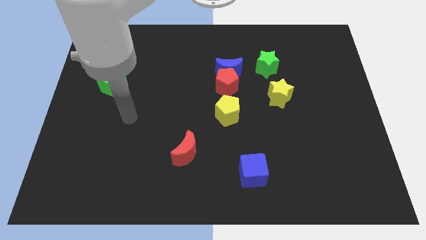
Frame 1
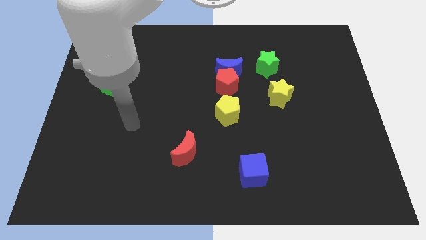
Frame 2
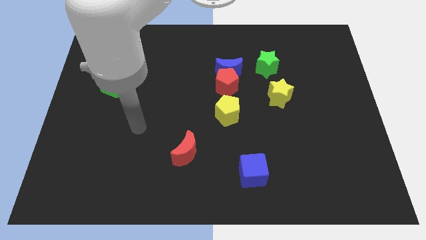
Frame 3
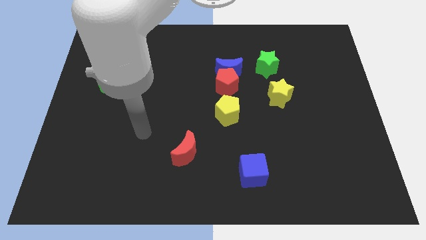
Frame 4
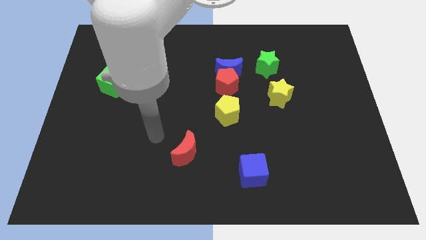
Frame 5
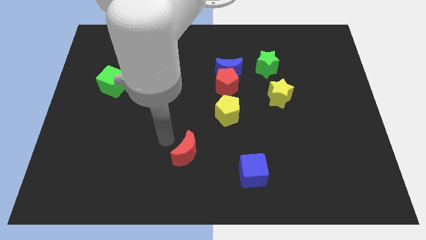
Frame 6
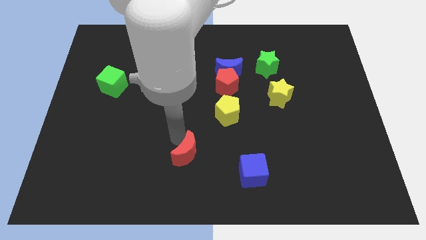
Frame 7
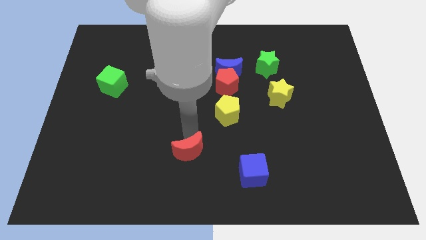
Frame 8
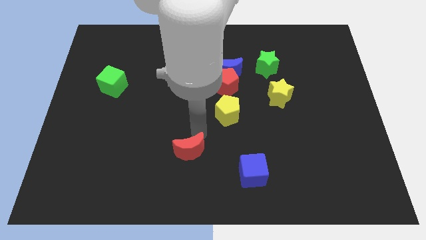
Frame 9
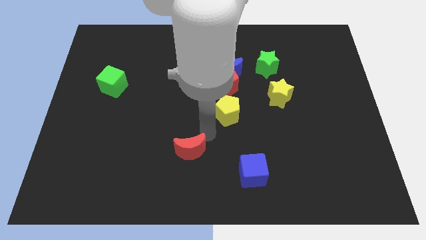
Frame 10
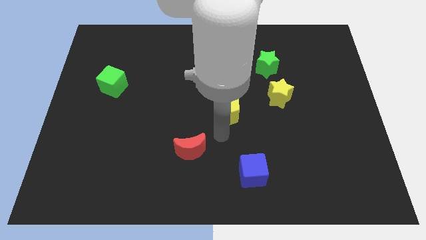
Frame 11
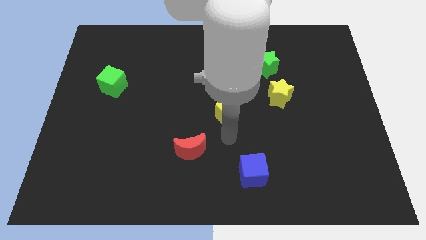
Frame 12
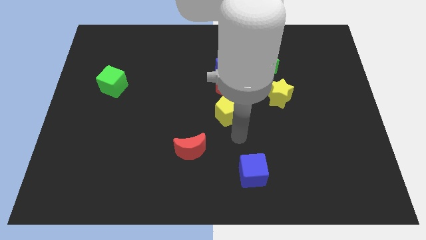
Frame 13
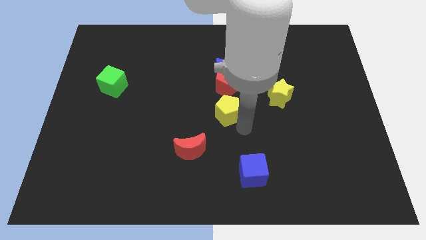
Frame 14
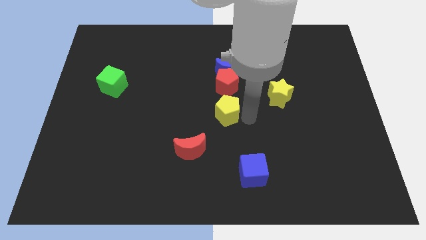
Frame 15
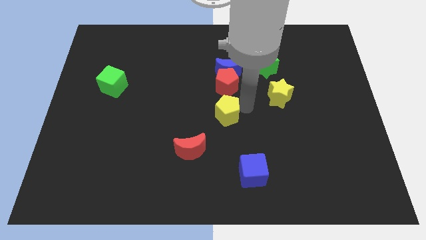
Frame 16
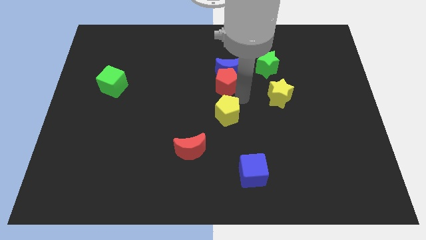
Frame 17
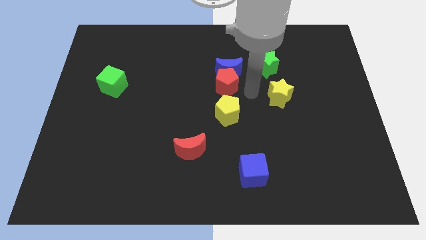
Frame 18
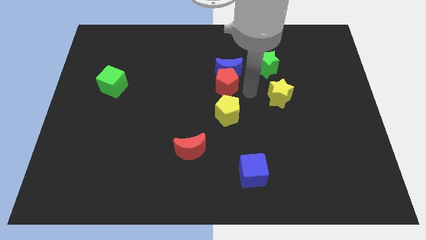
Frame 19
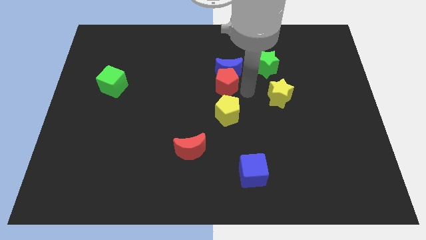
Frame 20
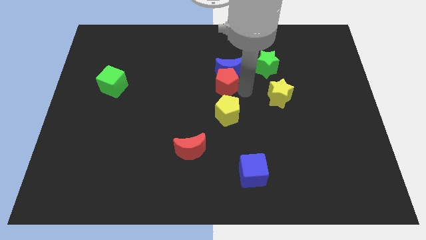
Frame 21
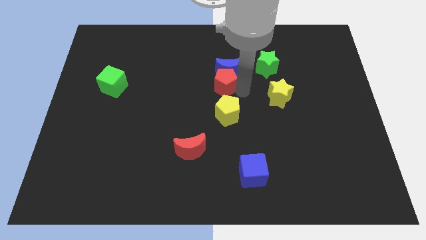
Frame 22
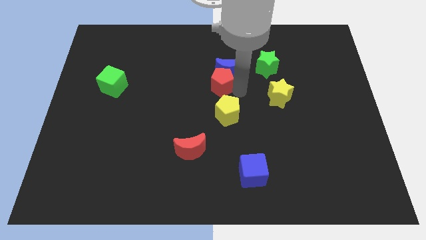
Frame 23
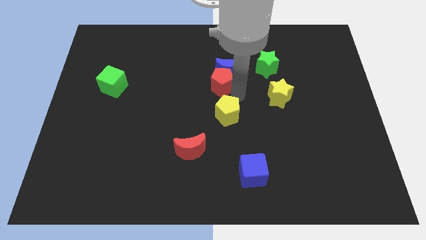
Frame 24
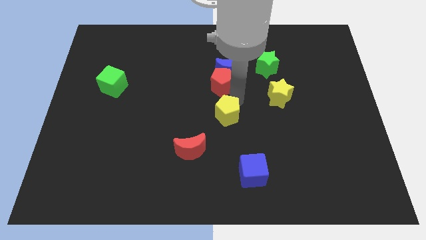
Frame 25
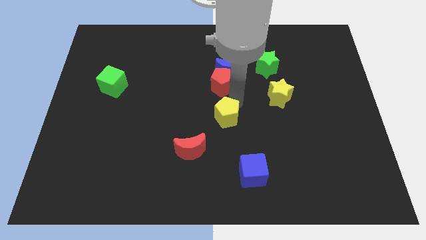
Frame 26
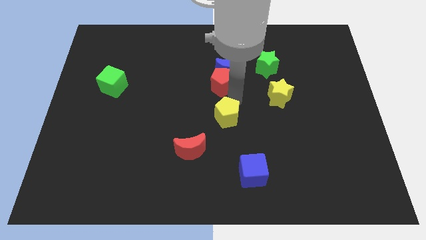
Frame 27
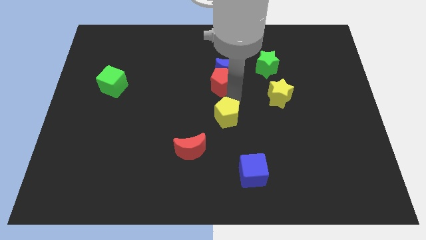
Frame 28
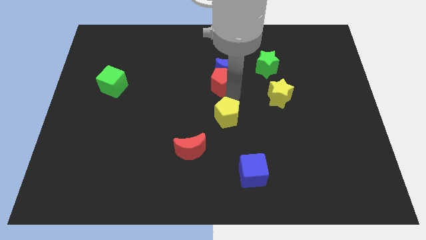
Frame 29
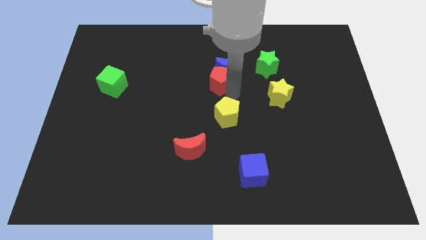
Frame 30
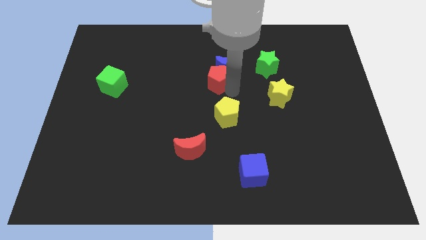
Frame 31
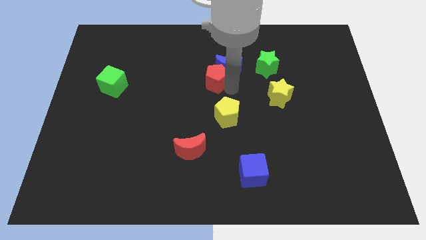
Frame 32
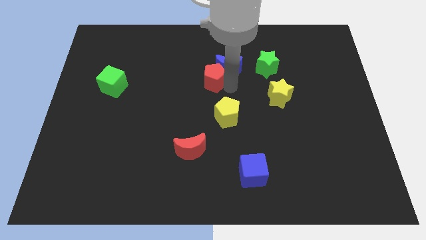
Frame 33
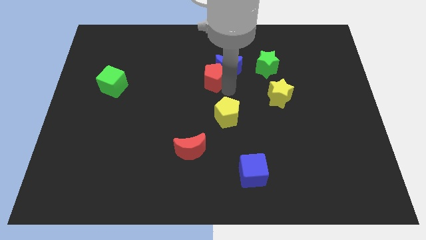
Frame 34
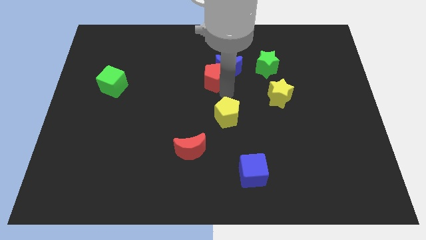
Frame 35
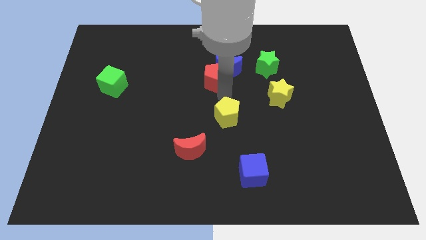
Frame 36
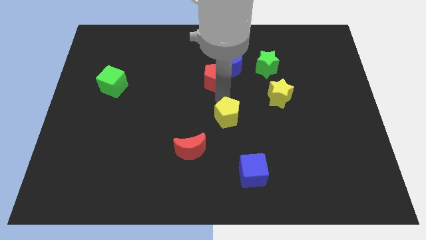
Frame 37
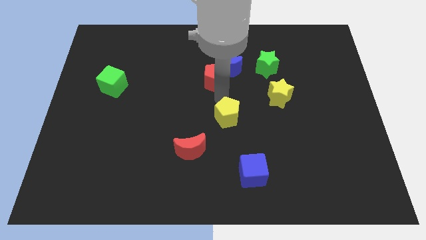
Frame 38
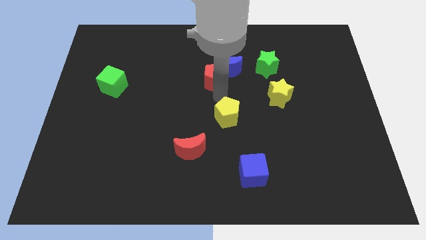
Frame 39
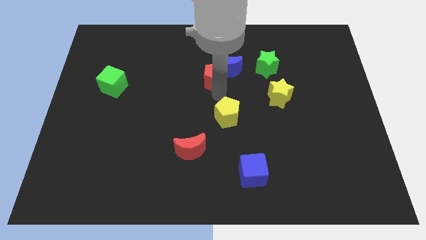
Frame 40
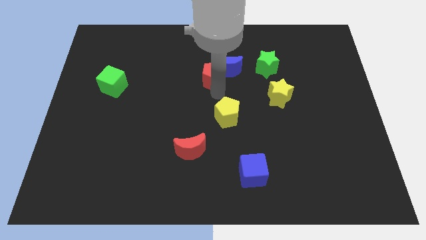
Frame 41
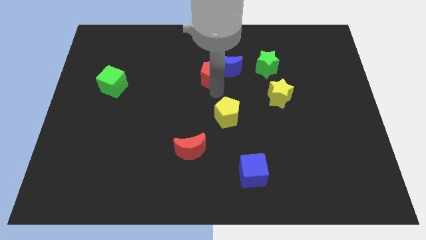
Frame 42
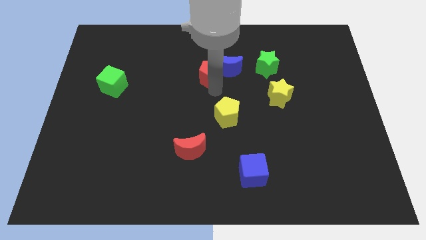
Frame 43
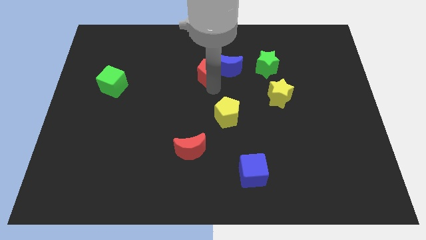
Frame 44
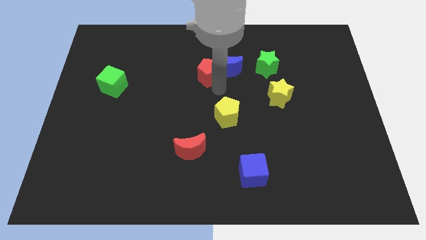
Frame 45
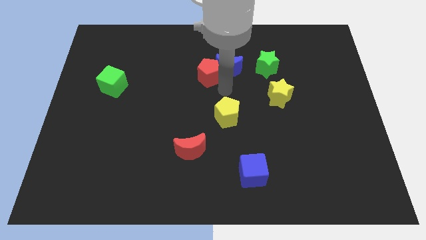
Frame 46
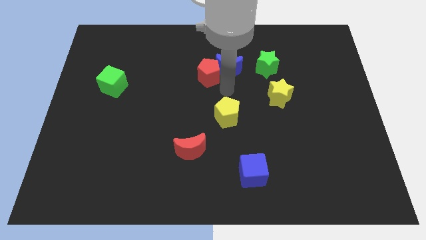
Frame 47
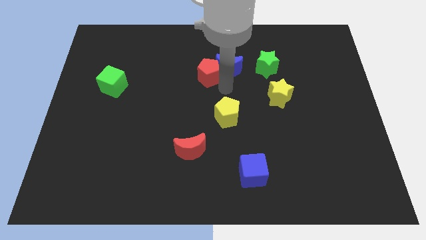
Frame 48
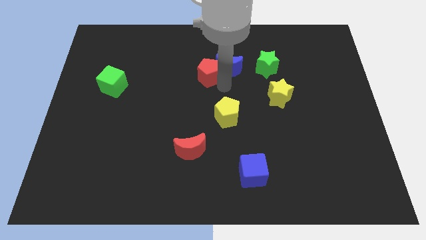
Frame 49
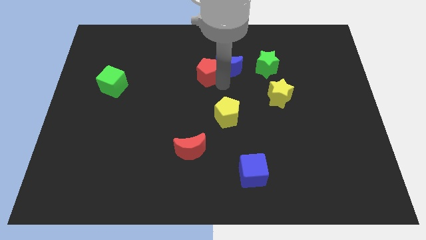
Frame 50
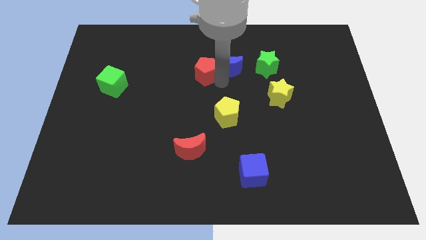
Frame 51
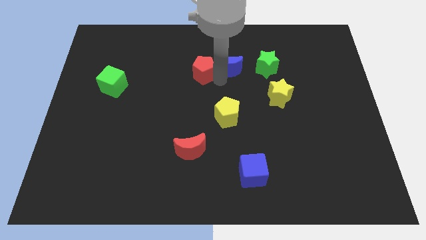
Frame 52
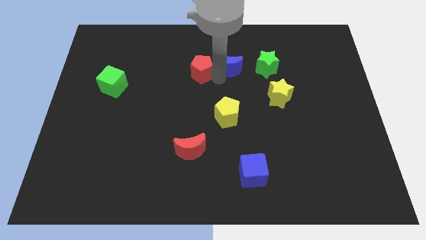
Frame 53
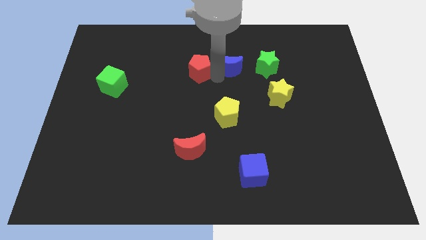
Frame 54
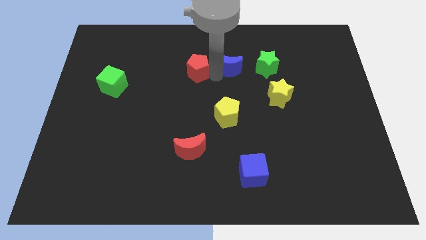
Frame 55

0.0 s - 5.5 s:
pull the red pentagon apart from the blue moon and yellow pentagon

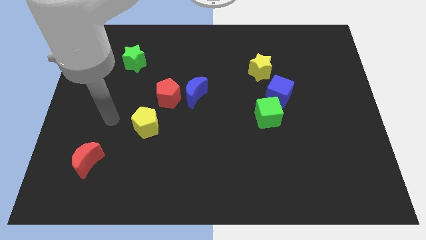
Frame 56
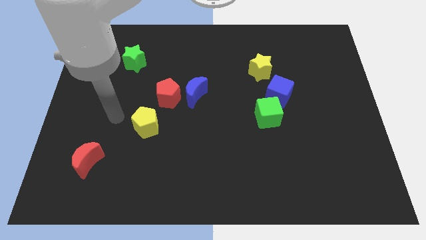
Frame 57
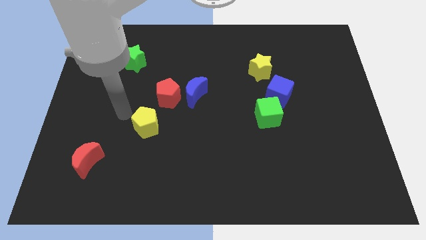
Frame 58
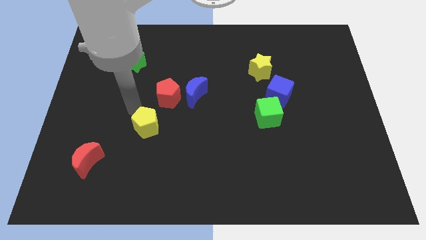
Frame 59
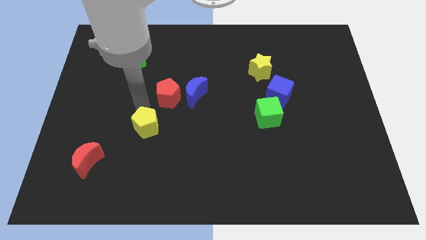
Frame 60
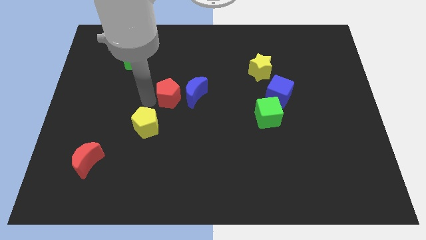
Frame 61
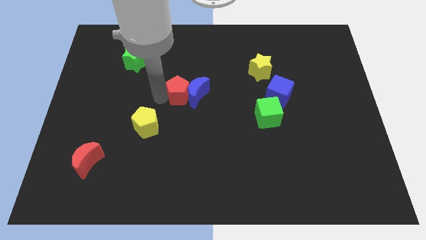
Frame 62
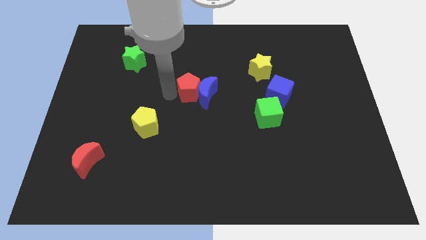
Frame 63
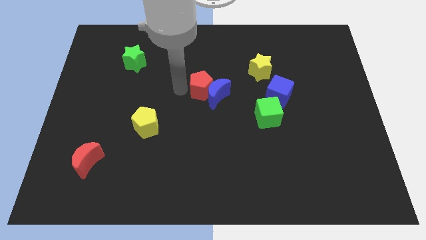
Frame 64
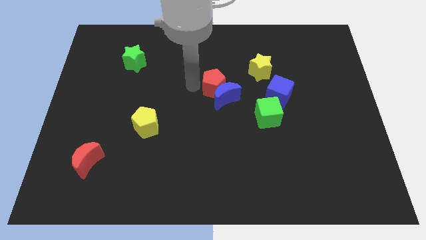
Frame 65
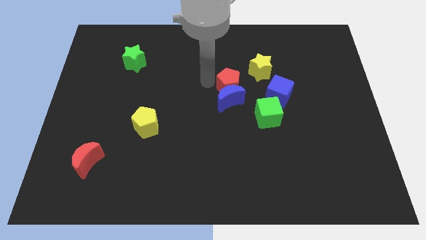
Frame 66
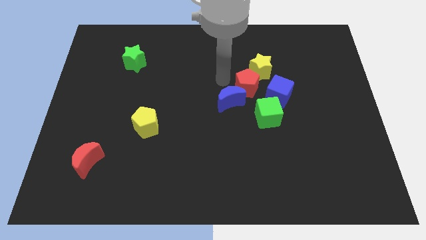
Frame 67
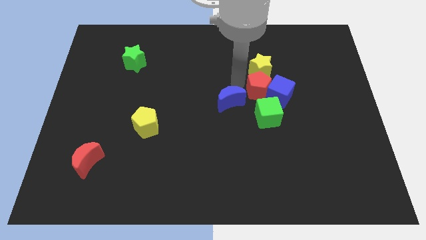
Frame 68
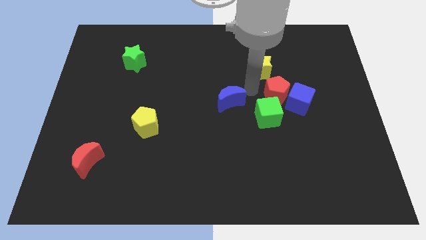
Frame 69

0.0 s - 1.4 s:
pull the blue moon apart from the red pentagon

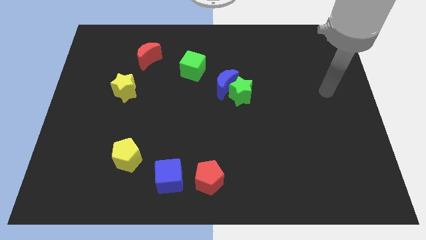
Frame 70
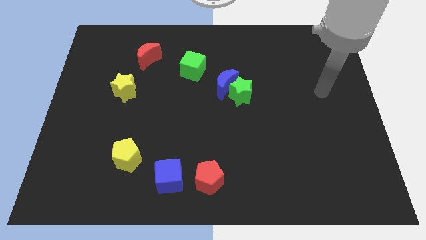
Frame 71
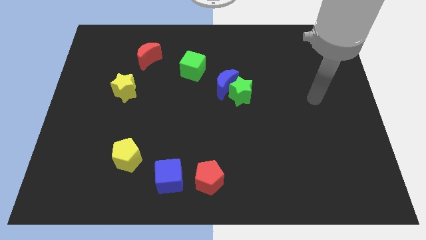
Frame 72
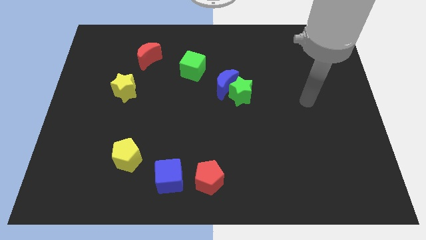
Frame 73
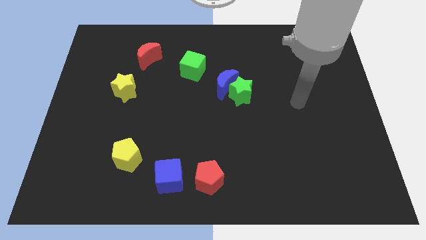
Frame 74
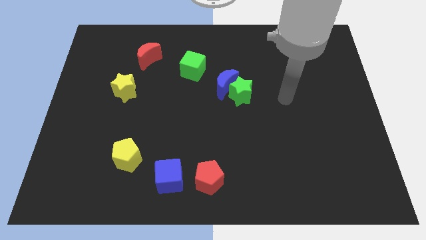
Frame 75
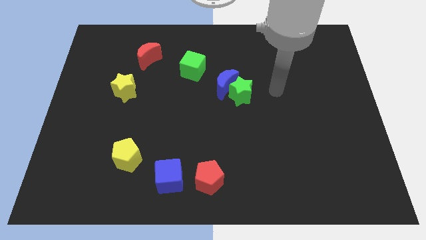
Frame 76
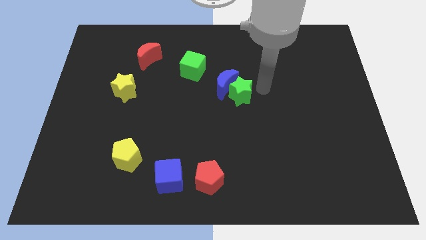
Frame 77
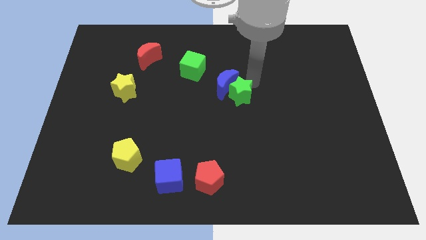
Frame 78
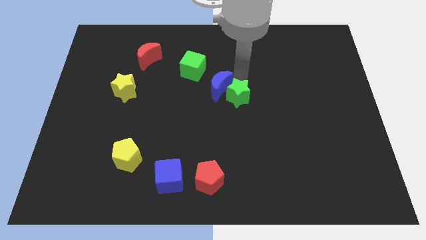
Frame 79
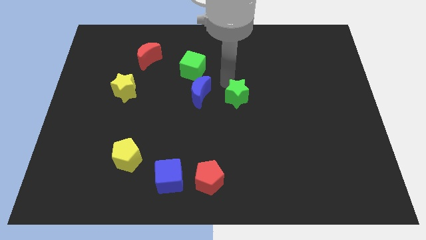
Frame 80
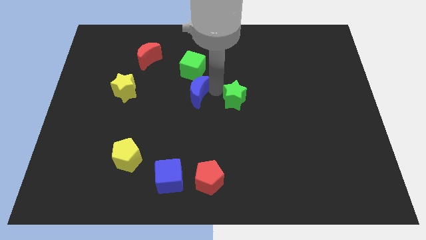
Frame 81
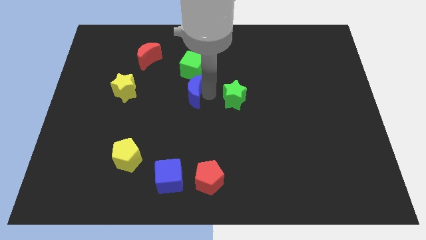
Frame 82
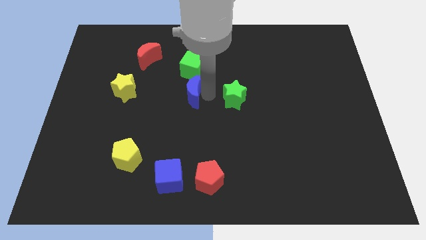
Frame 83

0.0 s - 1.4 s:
pull the green star apart from the blue moon

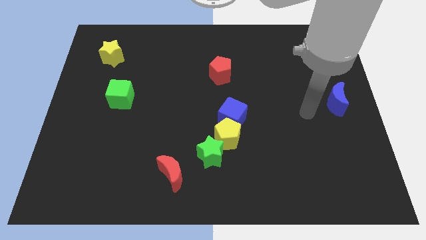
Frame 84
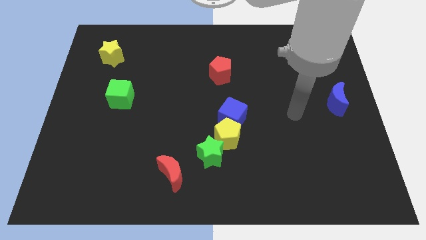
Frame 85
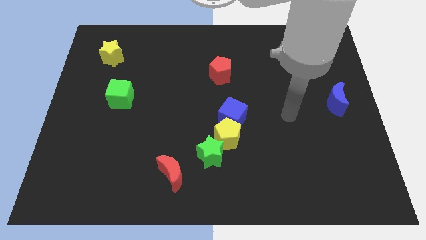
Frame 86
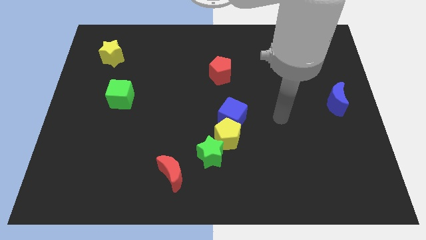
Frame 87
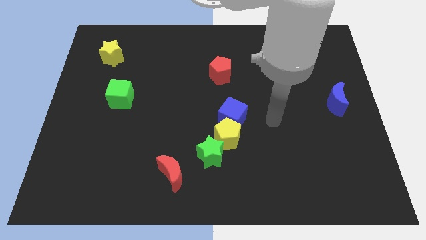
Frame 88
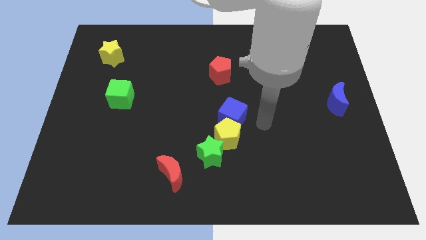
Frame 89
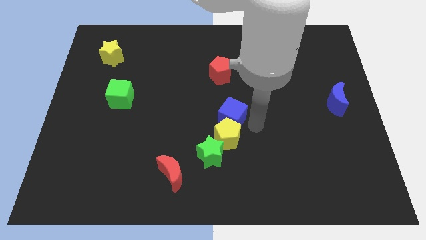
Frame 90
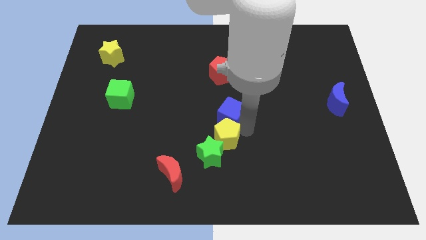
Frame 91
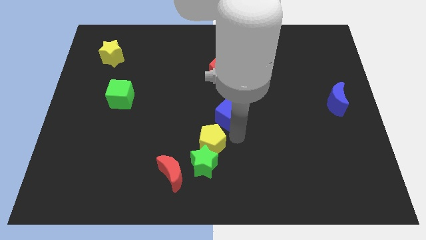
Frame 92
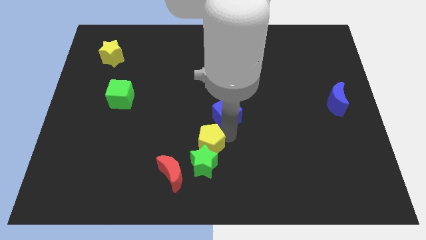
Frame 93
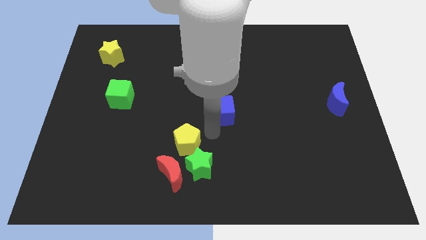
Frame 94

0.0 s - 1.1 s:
separate the blue cube from the yellow pentagon
